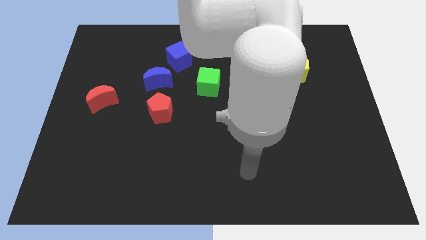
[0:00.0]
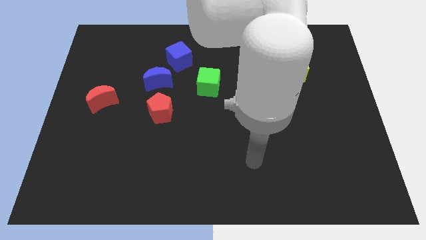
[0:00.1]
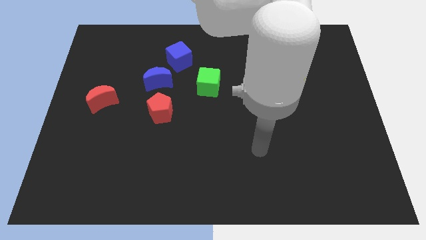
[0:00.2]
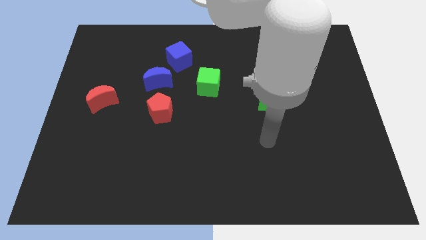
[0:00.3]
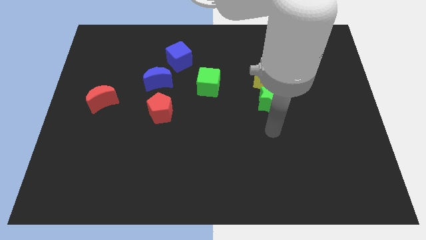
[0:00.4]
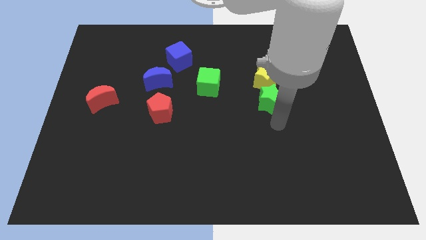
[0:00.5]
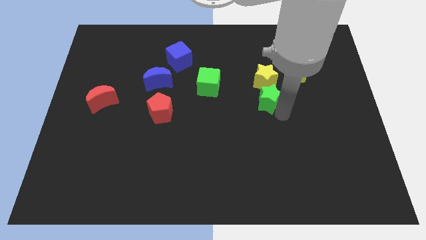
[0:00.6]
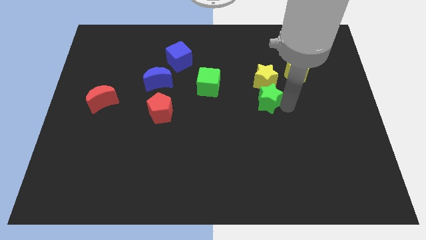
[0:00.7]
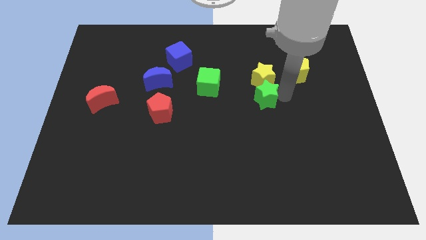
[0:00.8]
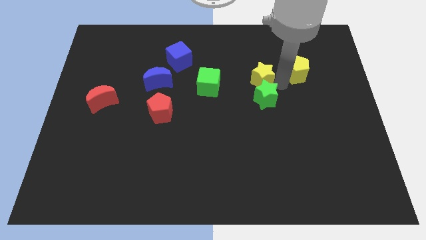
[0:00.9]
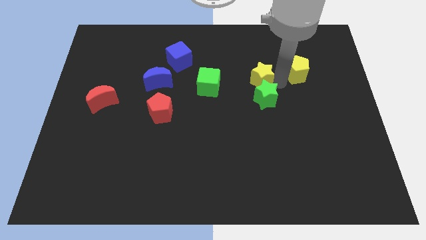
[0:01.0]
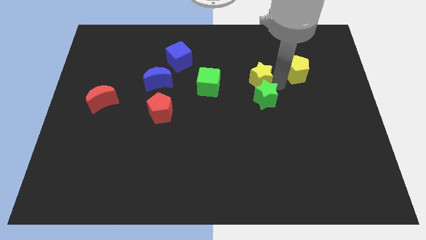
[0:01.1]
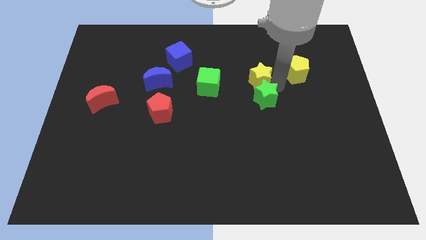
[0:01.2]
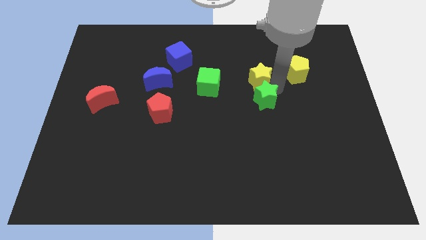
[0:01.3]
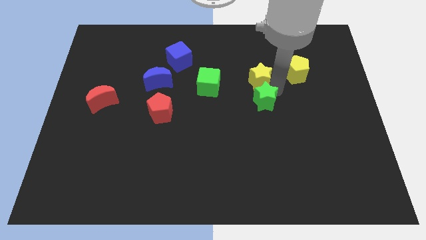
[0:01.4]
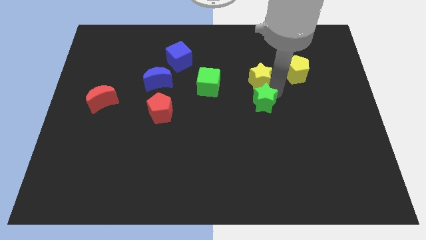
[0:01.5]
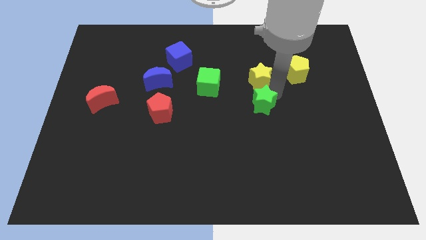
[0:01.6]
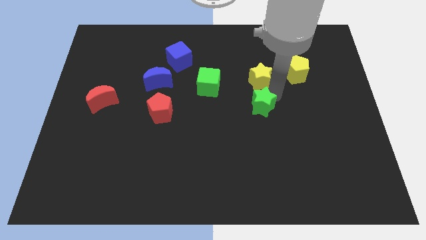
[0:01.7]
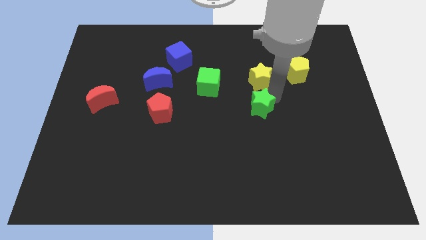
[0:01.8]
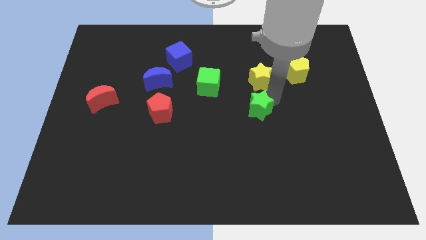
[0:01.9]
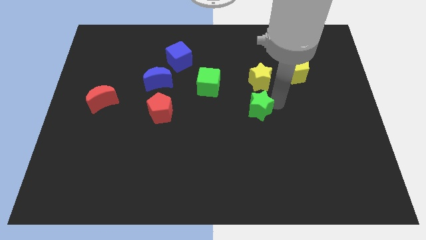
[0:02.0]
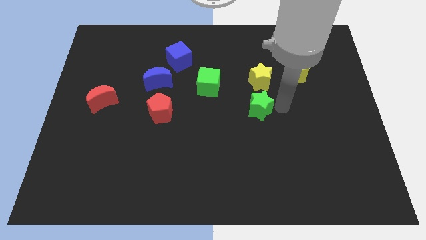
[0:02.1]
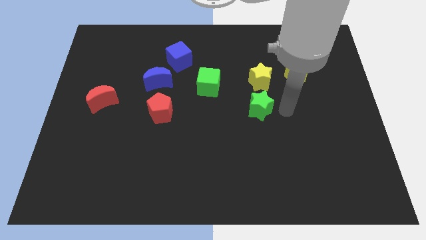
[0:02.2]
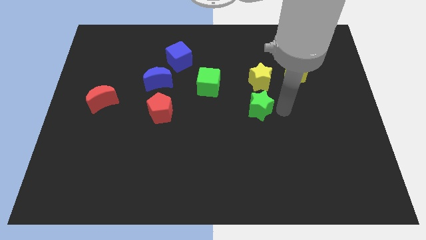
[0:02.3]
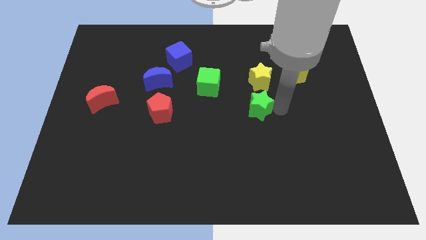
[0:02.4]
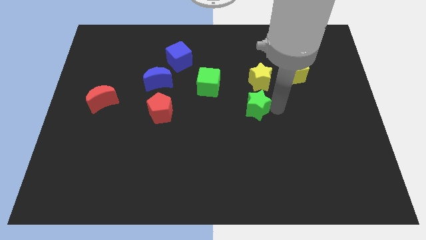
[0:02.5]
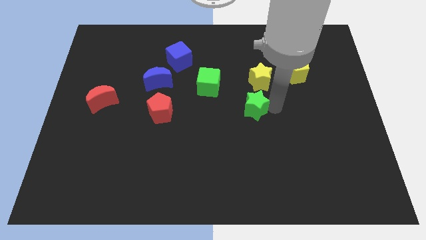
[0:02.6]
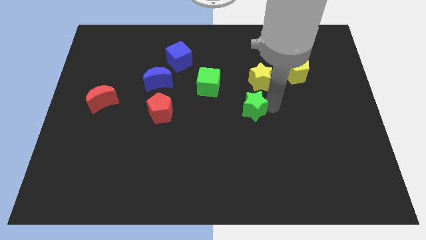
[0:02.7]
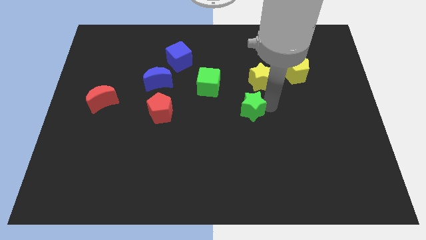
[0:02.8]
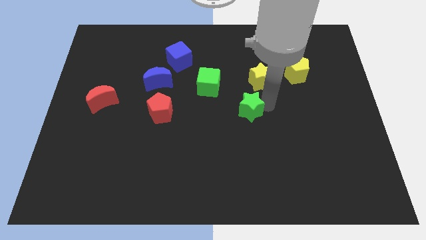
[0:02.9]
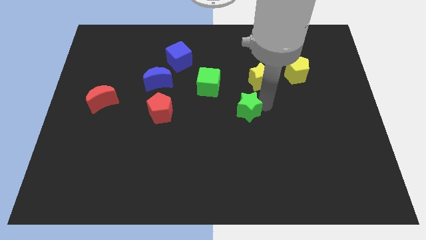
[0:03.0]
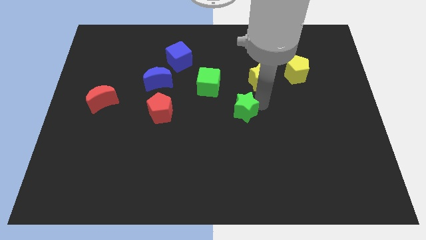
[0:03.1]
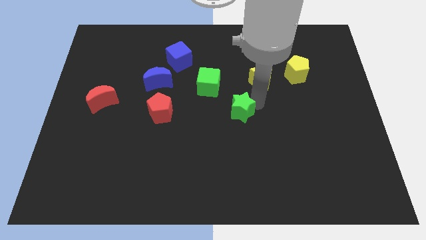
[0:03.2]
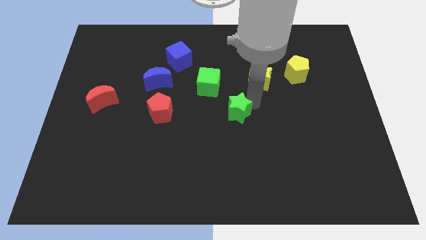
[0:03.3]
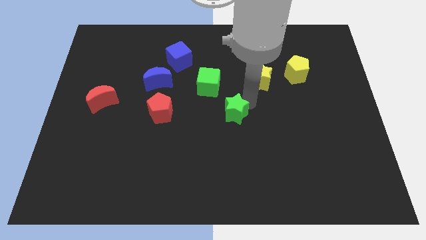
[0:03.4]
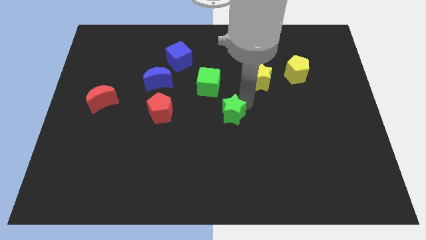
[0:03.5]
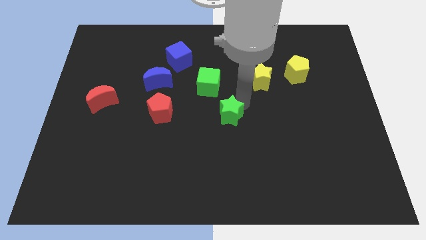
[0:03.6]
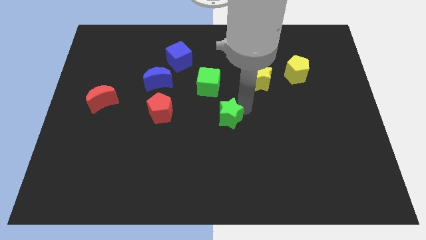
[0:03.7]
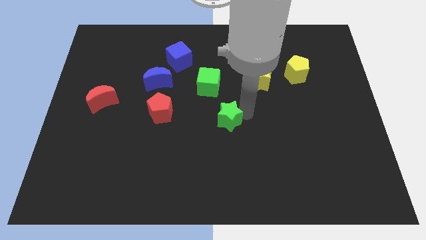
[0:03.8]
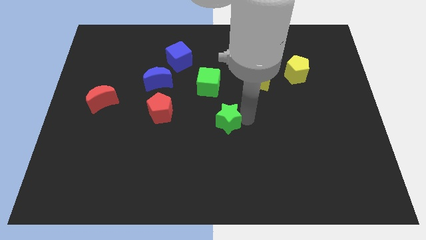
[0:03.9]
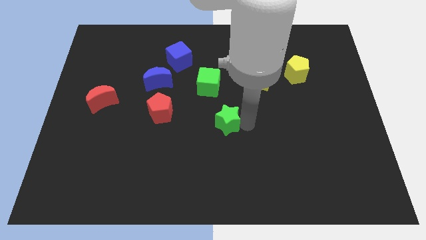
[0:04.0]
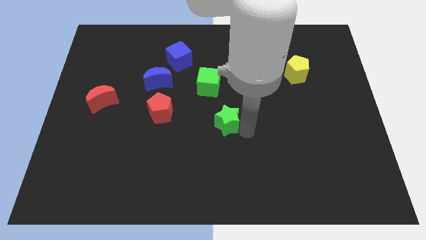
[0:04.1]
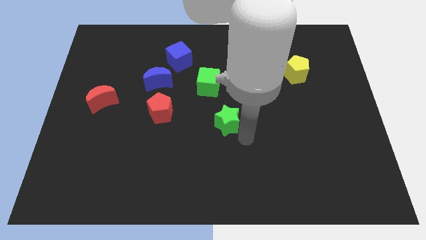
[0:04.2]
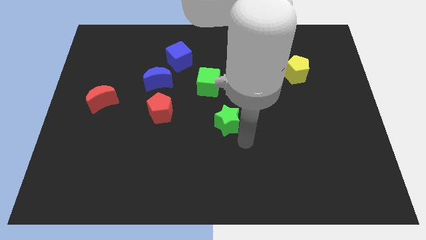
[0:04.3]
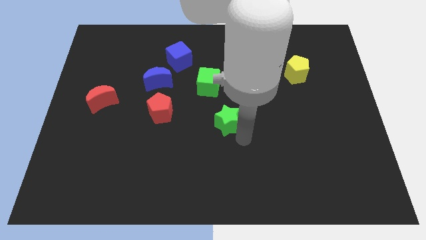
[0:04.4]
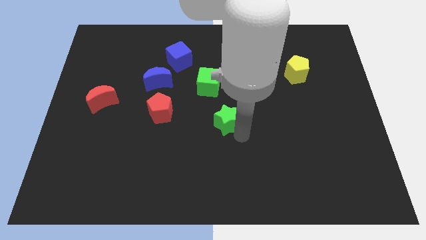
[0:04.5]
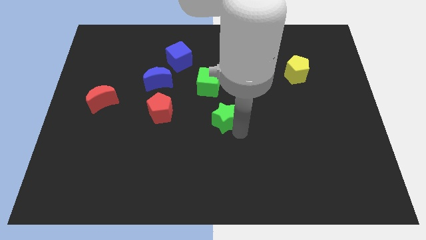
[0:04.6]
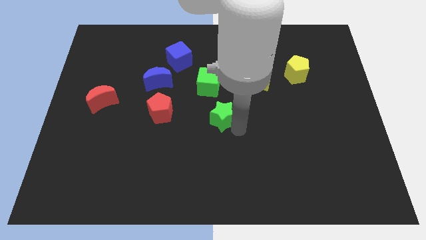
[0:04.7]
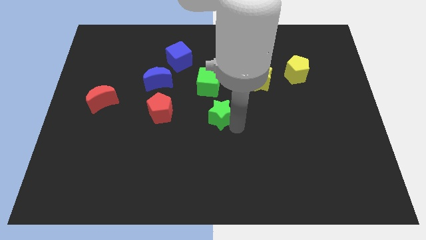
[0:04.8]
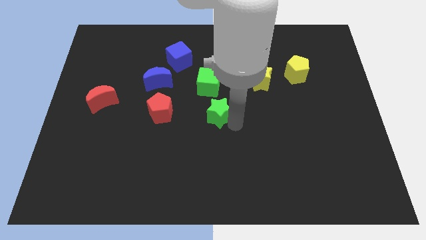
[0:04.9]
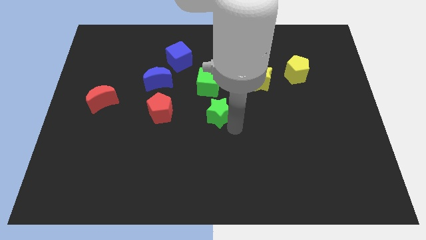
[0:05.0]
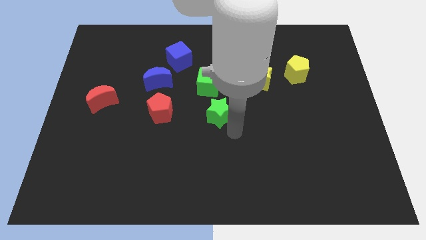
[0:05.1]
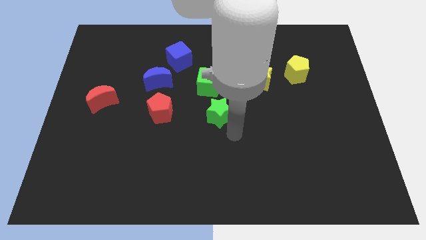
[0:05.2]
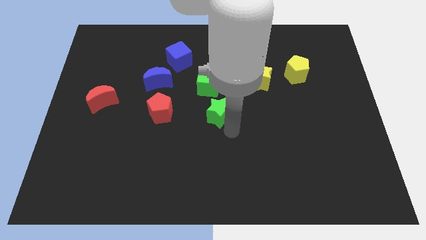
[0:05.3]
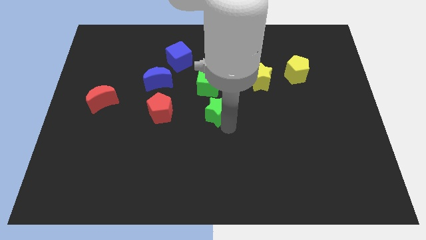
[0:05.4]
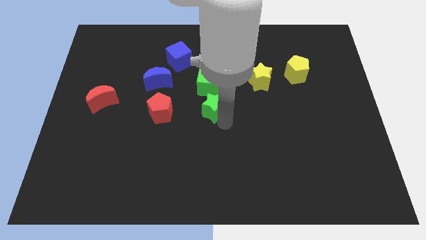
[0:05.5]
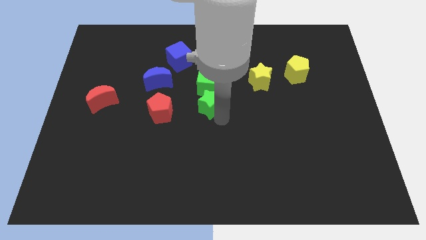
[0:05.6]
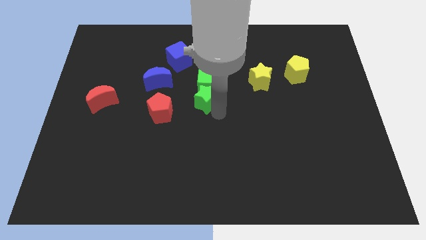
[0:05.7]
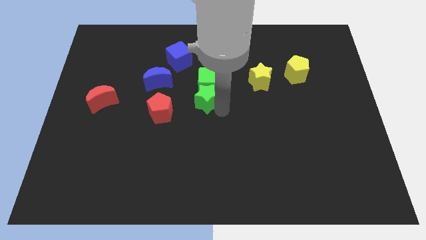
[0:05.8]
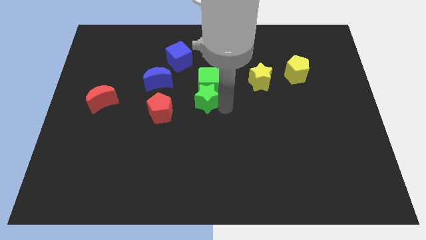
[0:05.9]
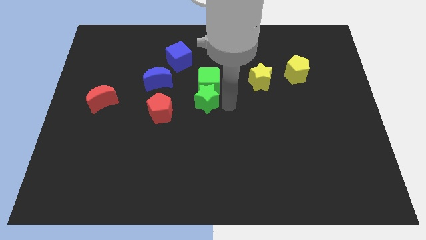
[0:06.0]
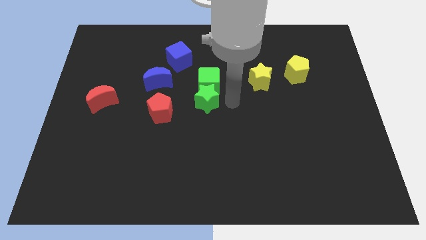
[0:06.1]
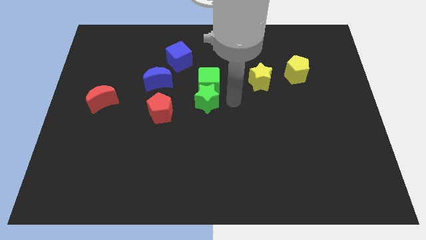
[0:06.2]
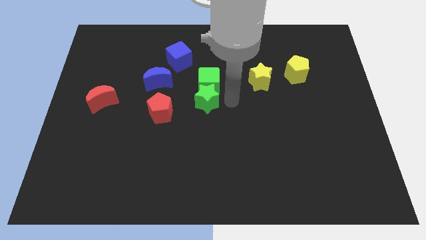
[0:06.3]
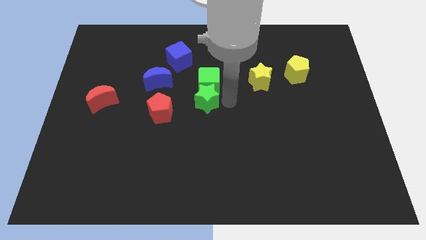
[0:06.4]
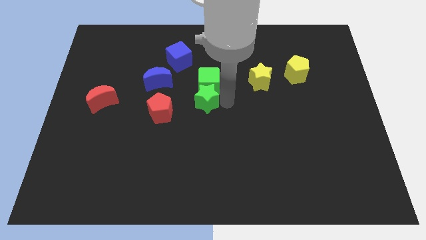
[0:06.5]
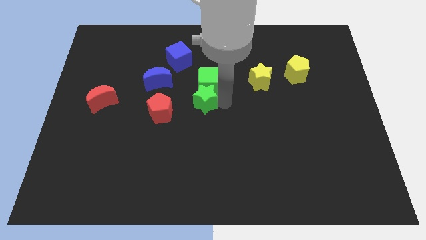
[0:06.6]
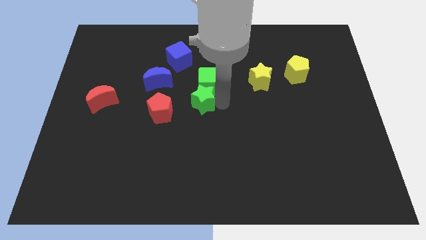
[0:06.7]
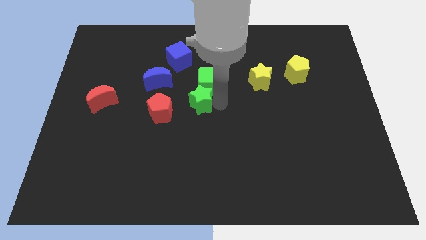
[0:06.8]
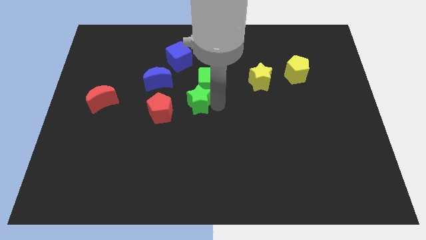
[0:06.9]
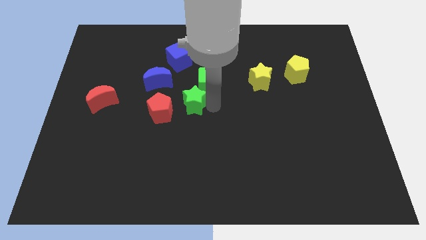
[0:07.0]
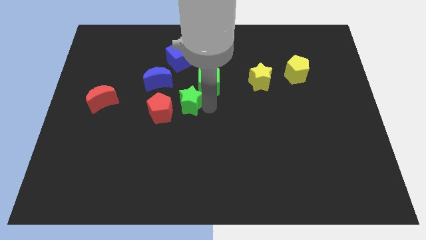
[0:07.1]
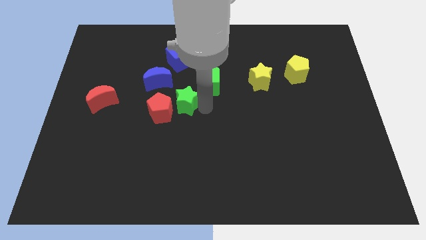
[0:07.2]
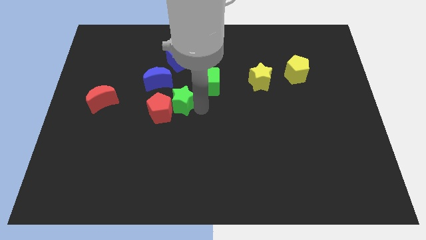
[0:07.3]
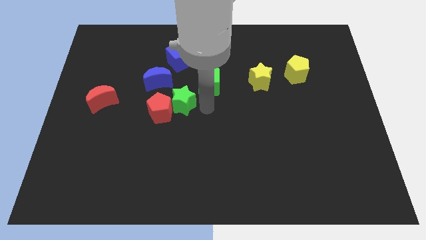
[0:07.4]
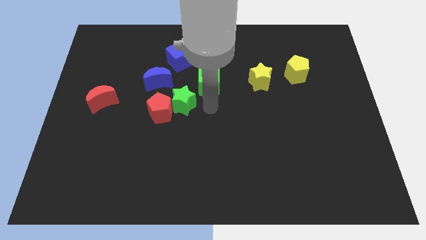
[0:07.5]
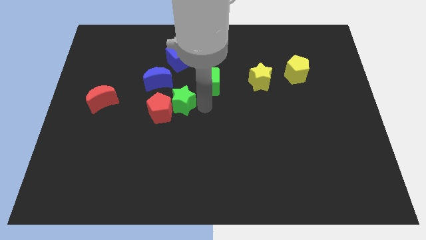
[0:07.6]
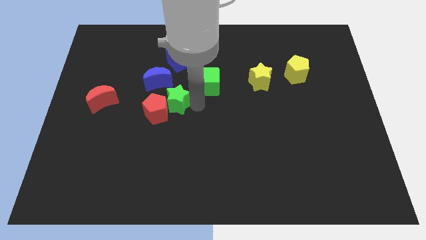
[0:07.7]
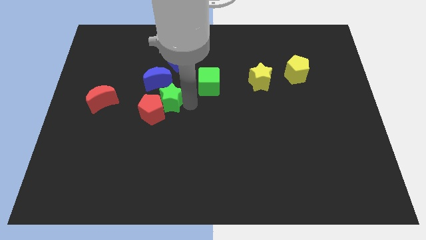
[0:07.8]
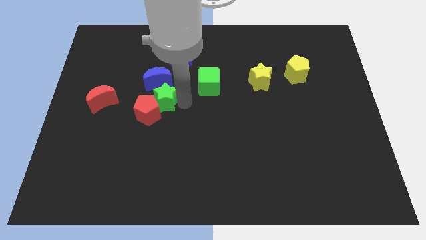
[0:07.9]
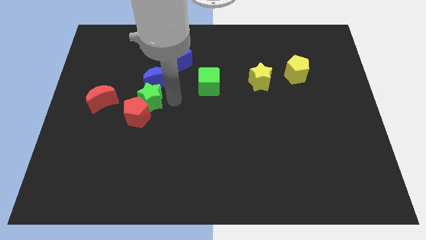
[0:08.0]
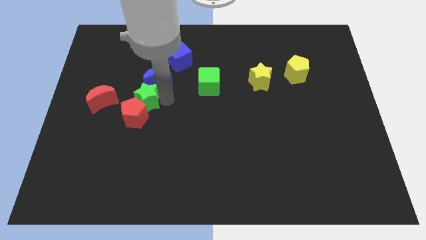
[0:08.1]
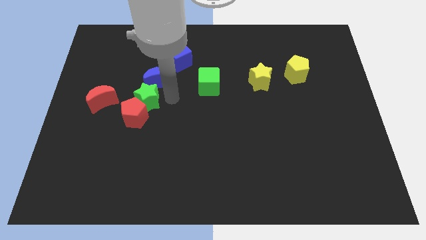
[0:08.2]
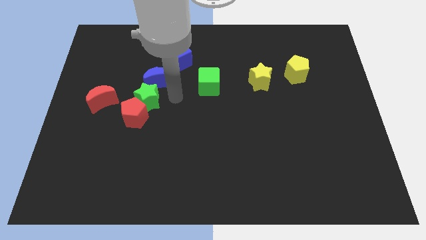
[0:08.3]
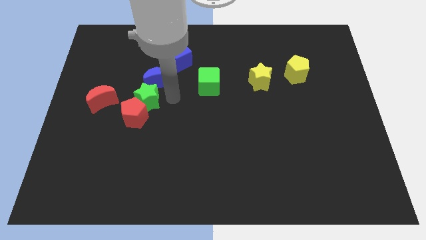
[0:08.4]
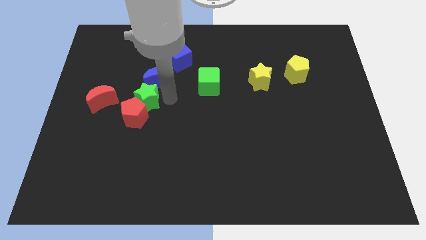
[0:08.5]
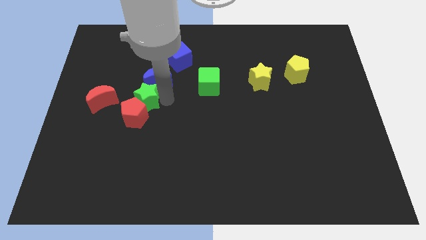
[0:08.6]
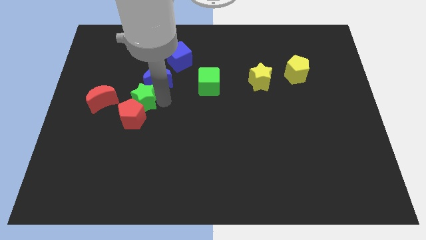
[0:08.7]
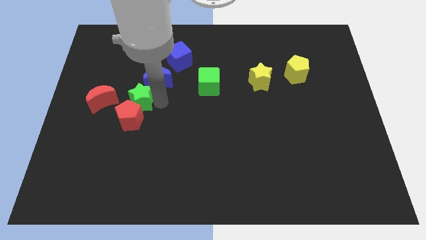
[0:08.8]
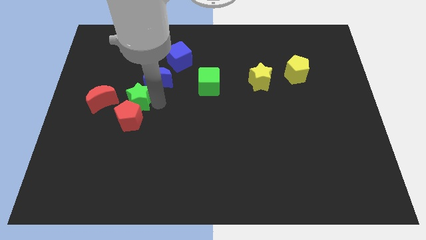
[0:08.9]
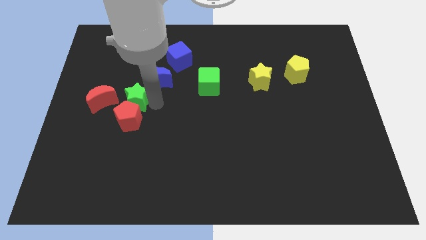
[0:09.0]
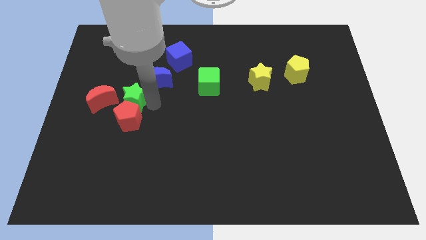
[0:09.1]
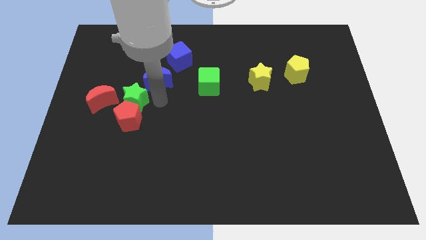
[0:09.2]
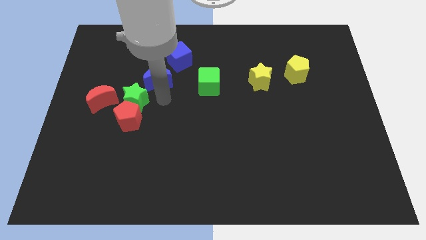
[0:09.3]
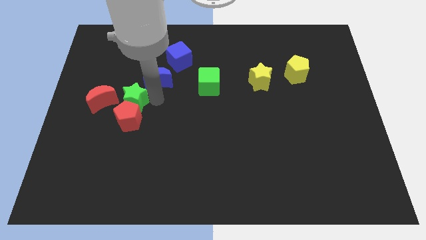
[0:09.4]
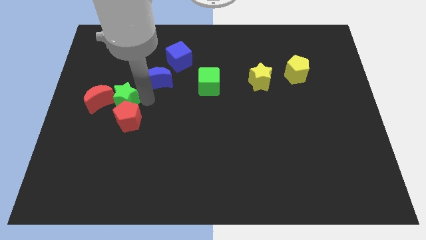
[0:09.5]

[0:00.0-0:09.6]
push the green star close to the red moon
